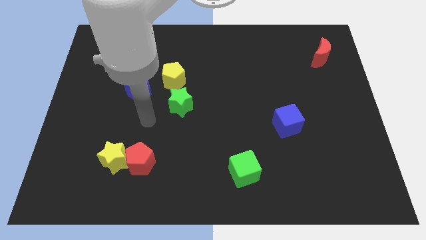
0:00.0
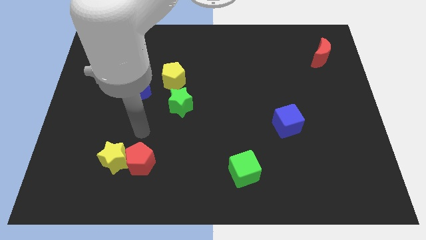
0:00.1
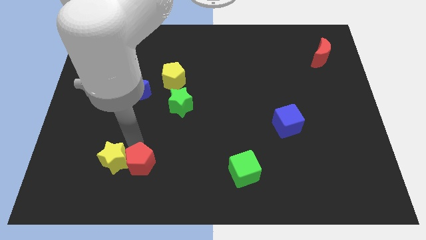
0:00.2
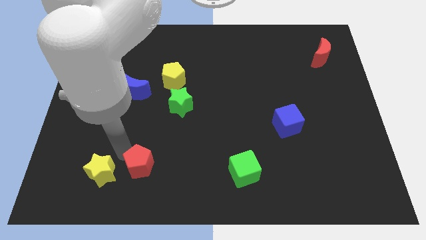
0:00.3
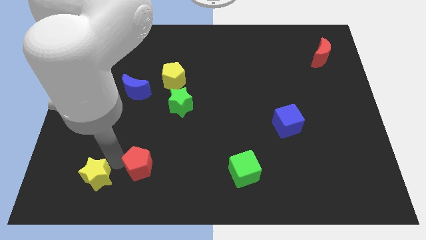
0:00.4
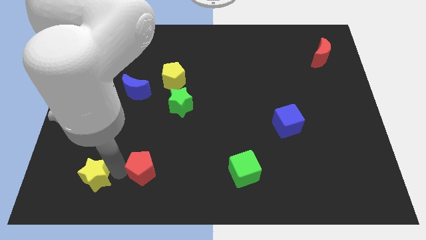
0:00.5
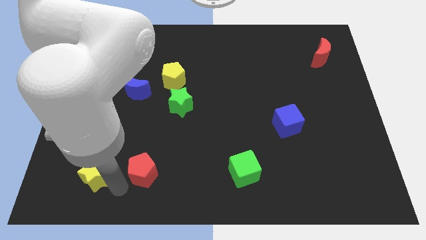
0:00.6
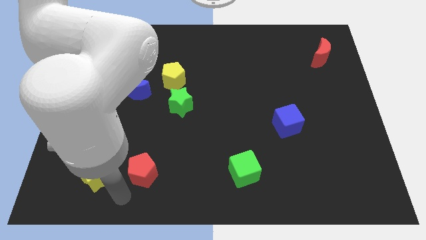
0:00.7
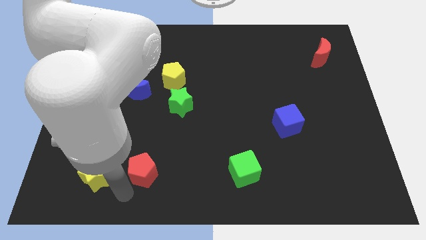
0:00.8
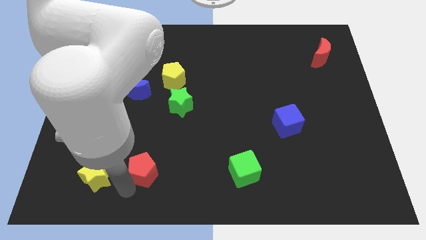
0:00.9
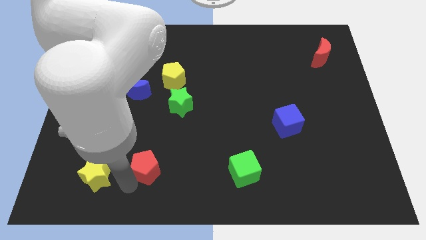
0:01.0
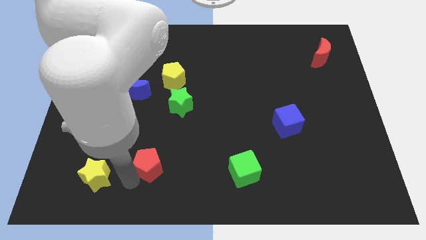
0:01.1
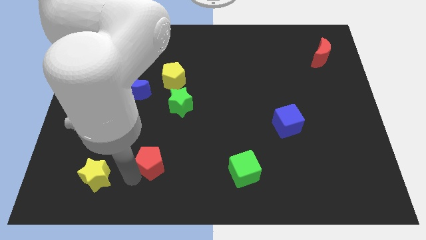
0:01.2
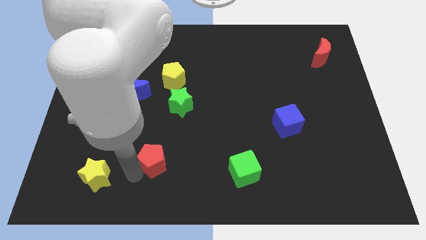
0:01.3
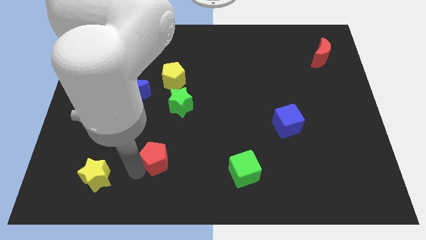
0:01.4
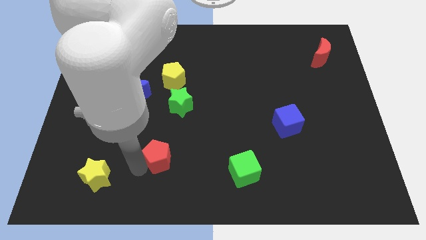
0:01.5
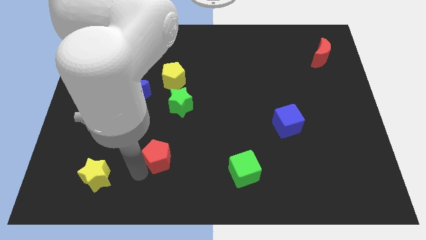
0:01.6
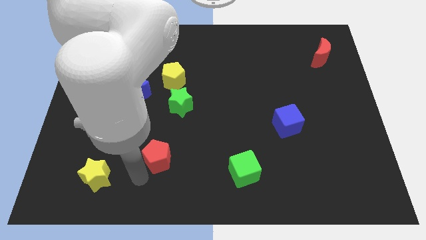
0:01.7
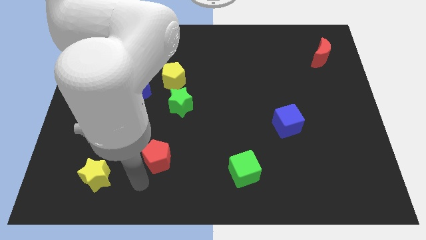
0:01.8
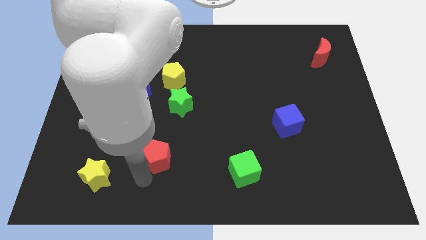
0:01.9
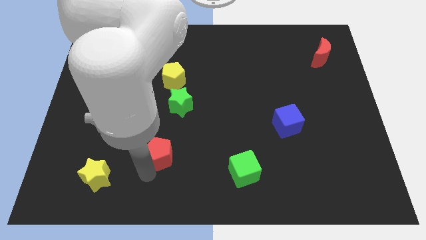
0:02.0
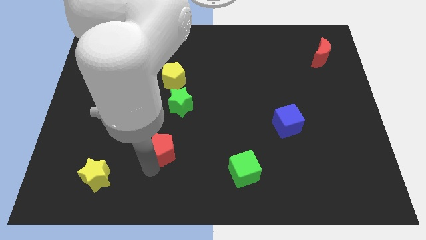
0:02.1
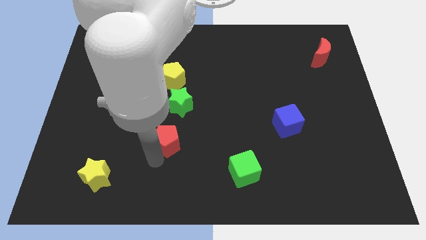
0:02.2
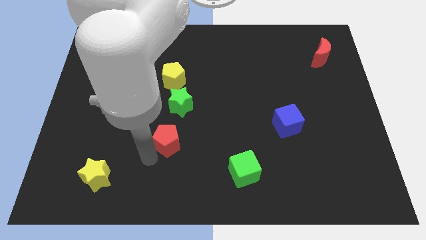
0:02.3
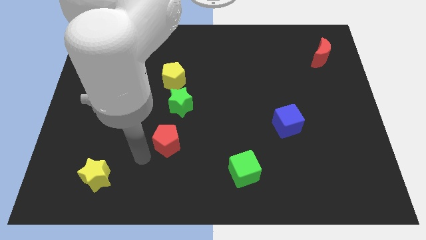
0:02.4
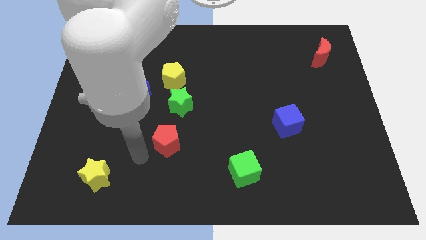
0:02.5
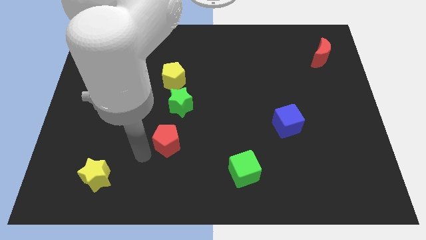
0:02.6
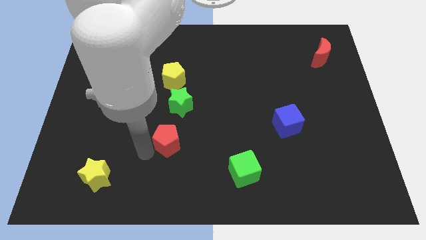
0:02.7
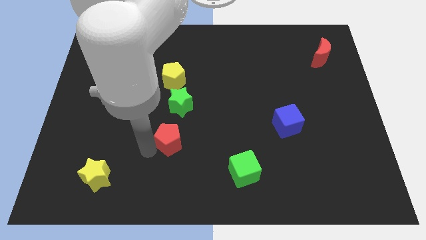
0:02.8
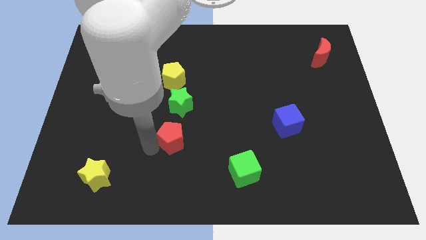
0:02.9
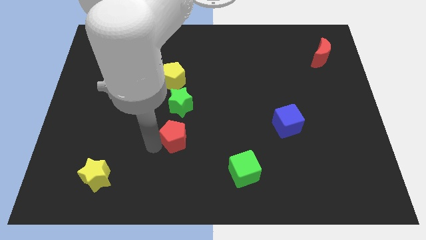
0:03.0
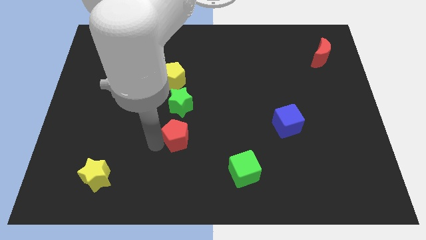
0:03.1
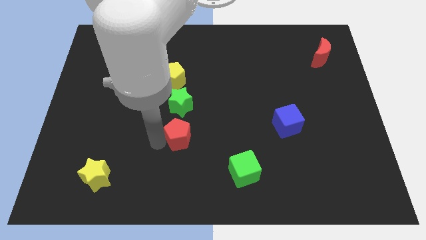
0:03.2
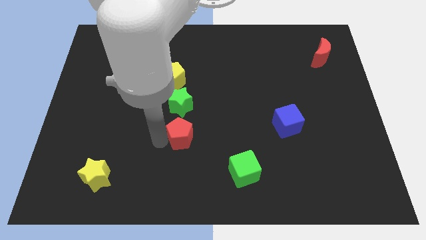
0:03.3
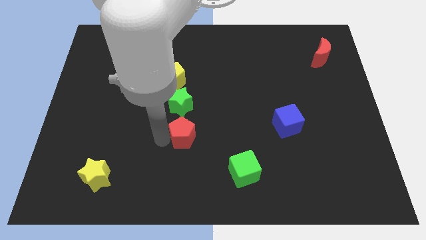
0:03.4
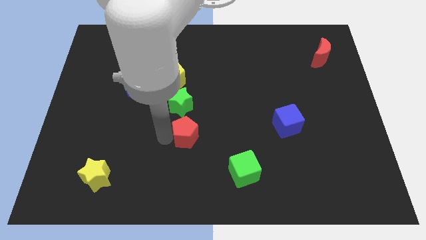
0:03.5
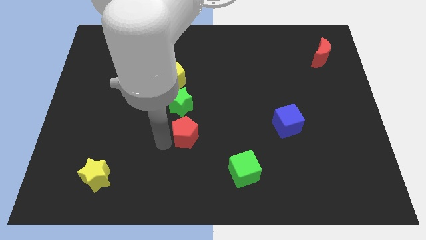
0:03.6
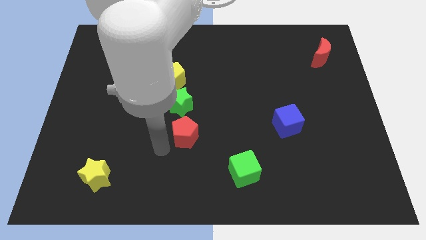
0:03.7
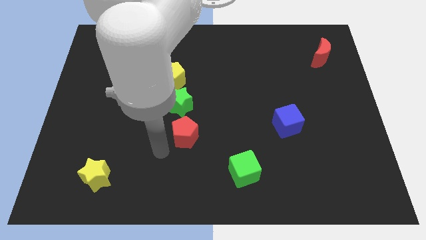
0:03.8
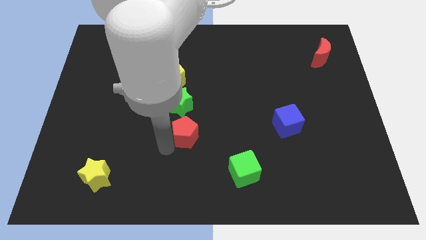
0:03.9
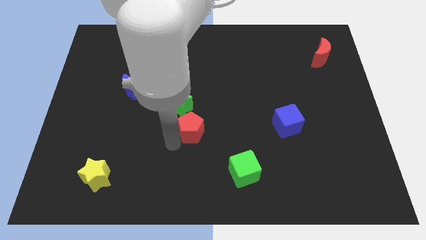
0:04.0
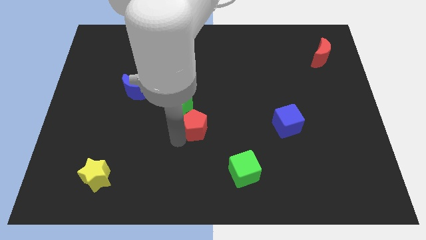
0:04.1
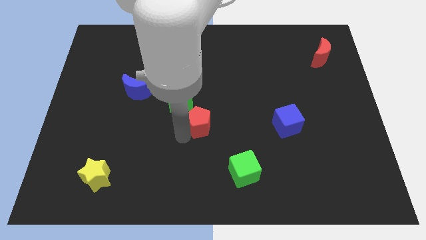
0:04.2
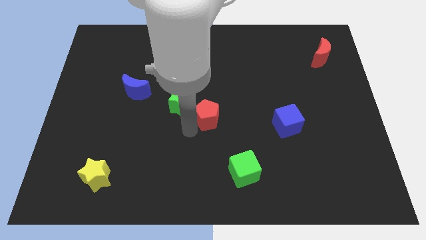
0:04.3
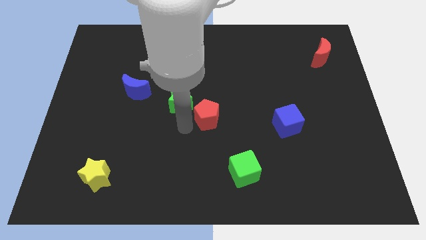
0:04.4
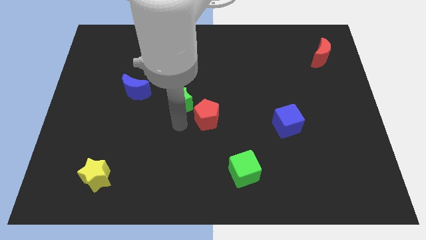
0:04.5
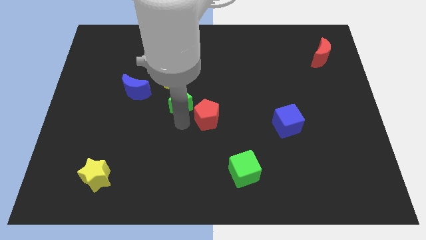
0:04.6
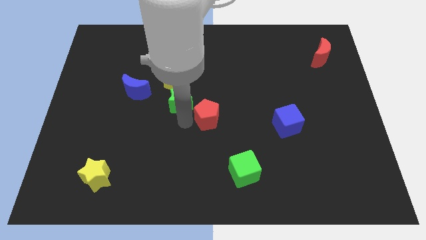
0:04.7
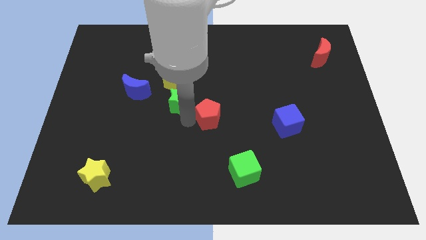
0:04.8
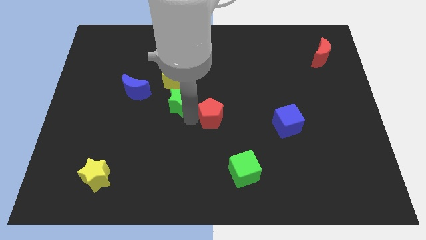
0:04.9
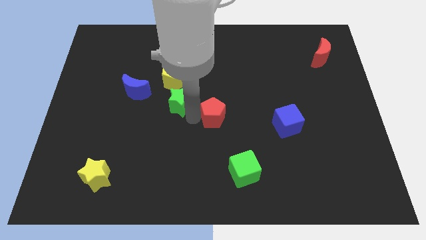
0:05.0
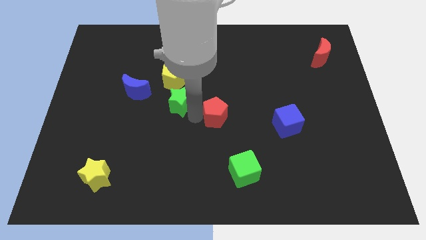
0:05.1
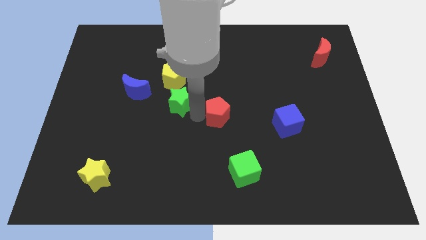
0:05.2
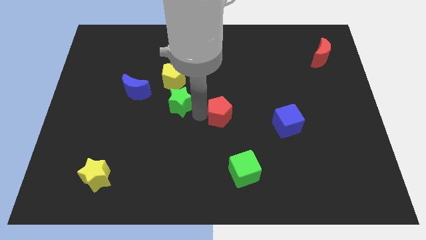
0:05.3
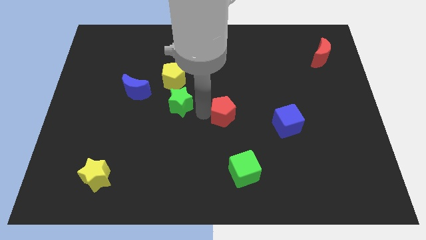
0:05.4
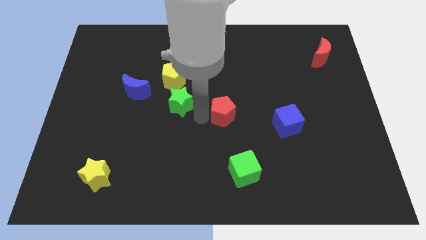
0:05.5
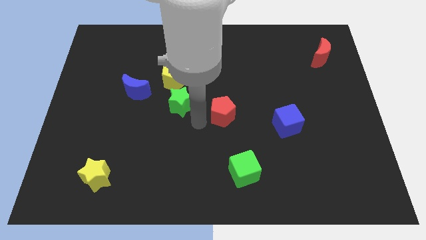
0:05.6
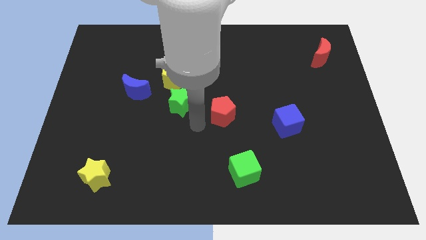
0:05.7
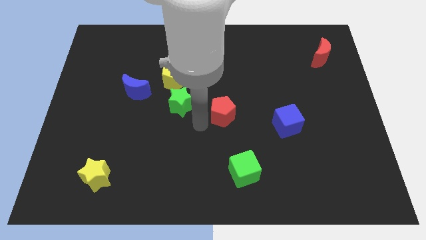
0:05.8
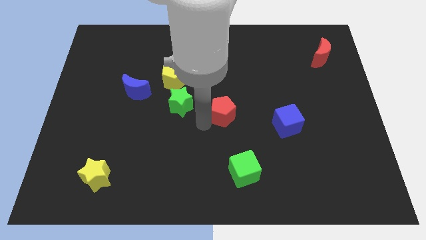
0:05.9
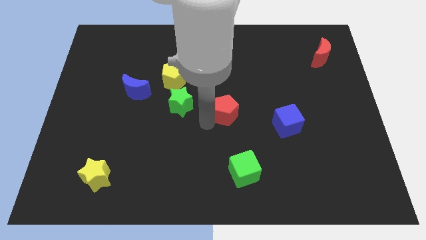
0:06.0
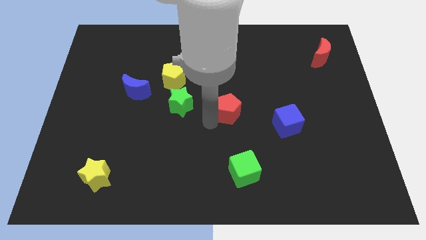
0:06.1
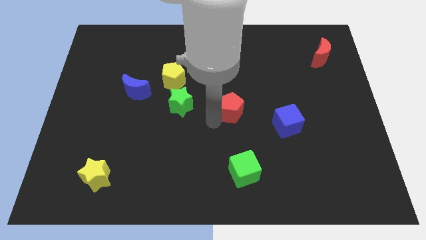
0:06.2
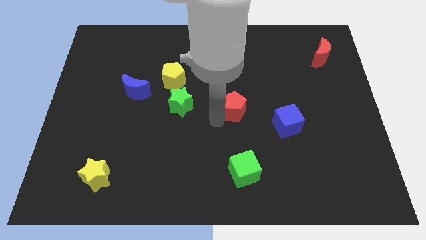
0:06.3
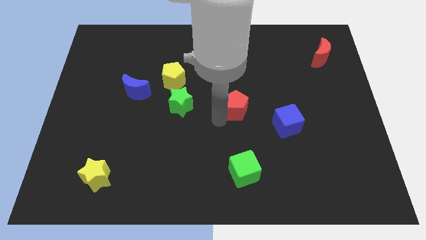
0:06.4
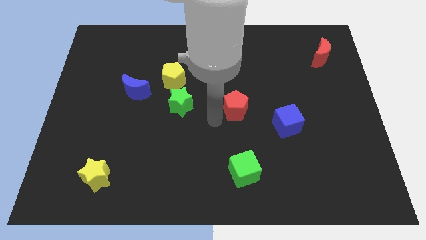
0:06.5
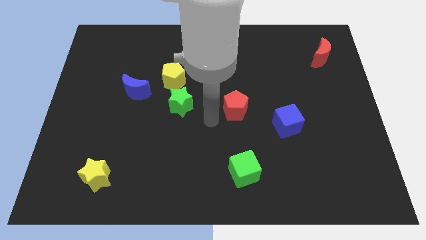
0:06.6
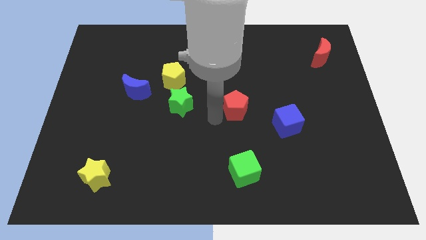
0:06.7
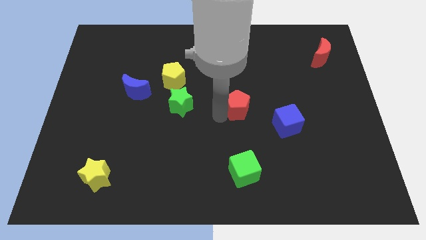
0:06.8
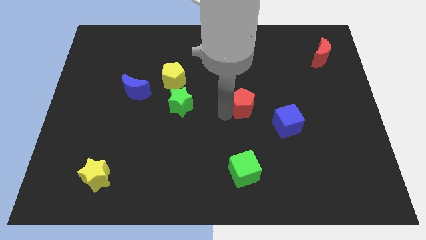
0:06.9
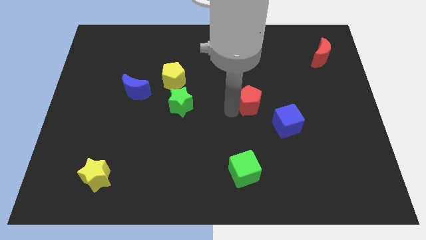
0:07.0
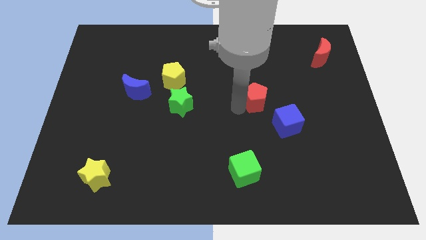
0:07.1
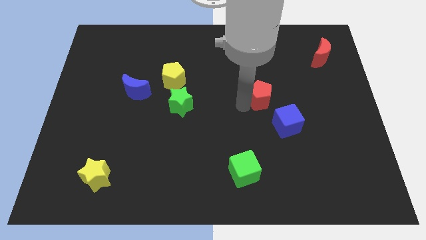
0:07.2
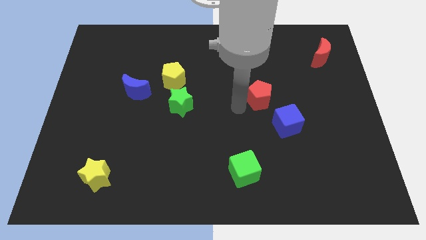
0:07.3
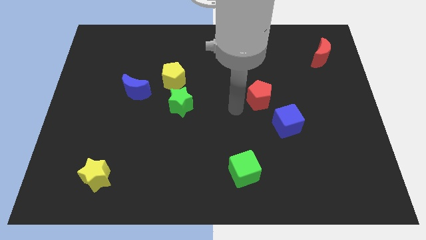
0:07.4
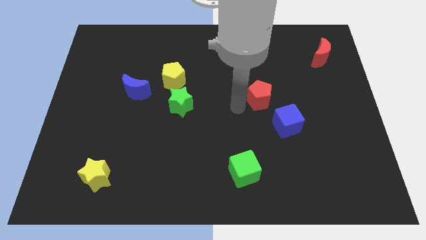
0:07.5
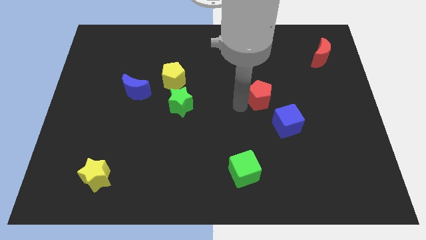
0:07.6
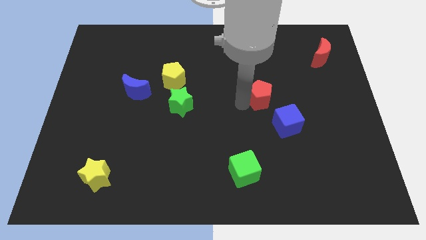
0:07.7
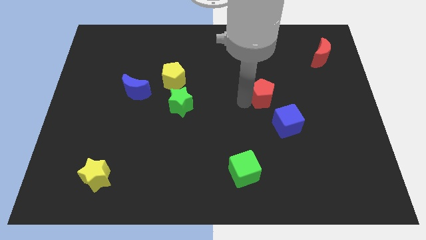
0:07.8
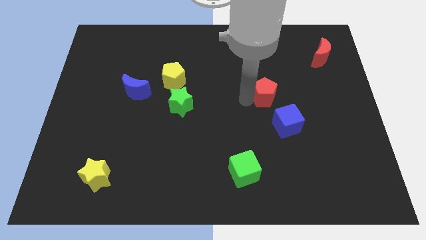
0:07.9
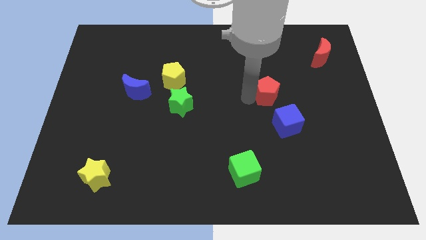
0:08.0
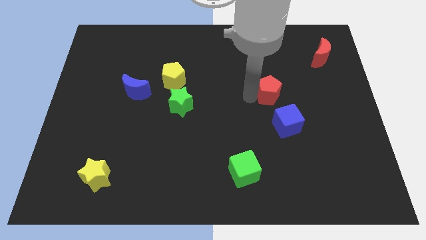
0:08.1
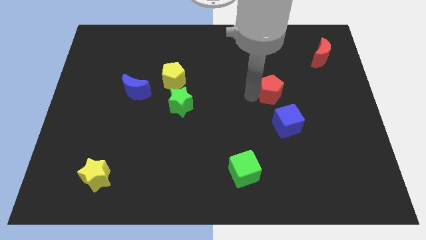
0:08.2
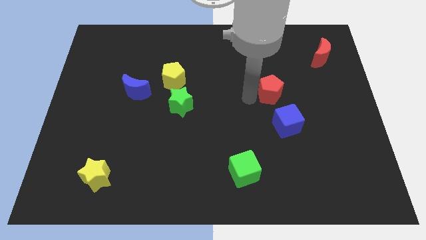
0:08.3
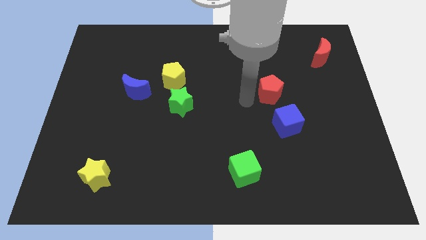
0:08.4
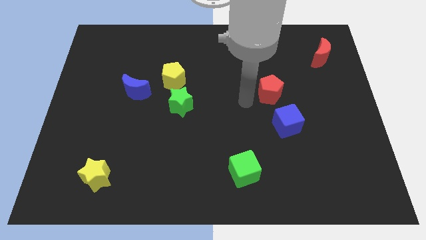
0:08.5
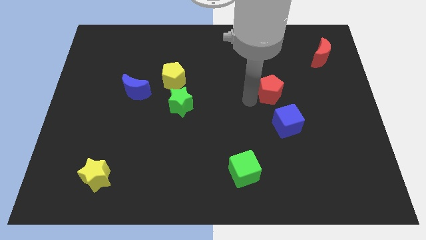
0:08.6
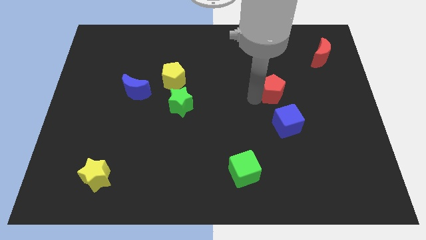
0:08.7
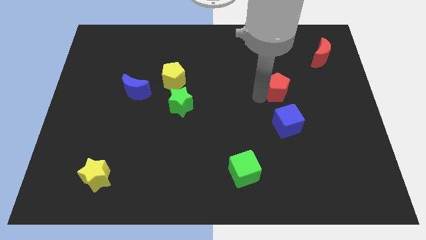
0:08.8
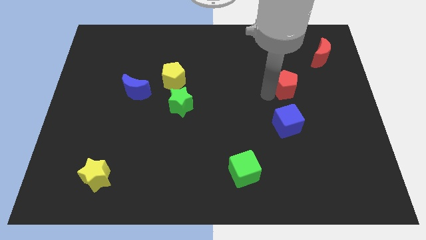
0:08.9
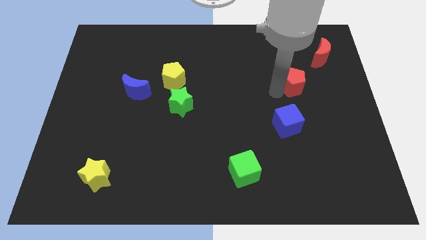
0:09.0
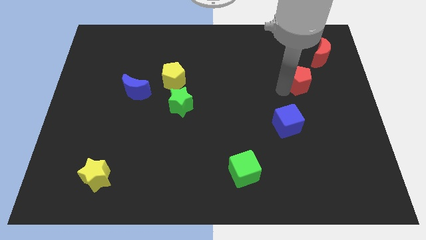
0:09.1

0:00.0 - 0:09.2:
put the red pentagon to the bottom left side of the red moon
